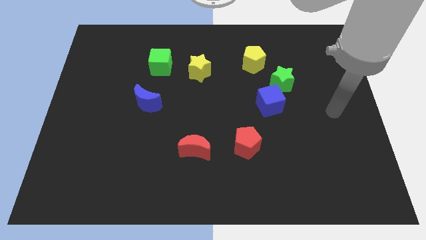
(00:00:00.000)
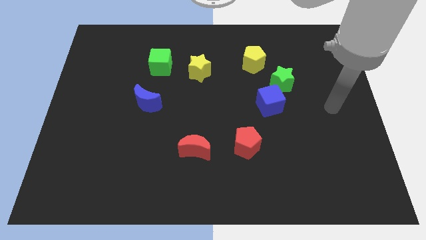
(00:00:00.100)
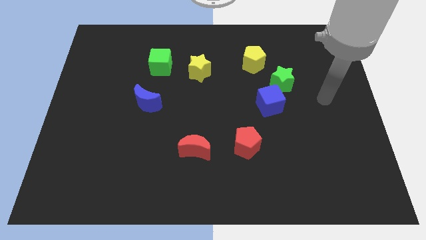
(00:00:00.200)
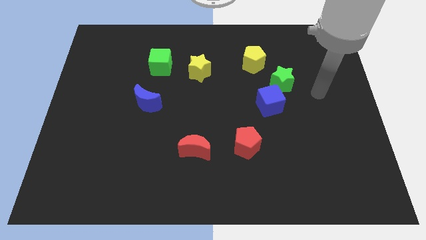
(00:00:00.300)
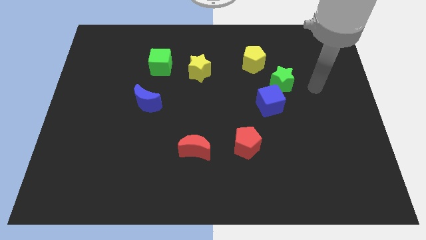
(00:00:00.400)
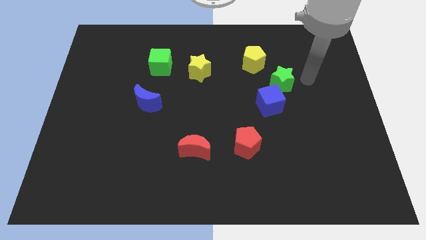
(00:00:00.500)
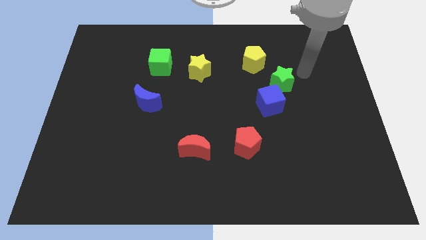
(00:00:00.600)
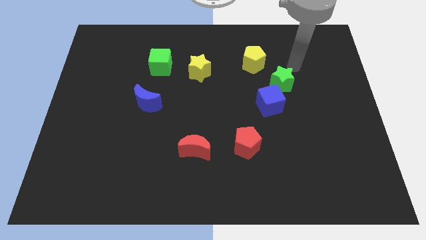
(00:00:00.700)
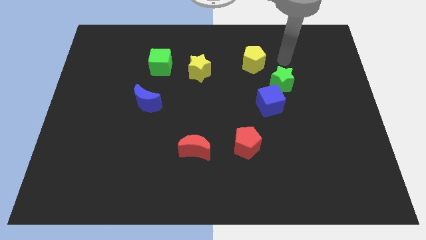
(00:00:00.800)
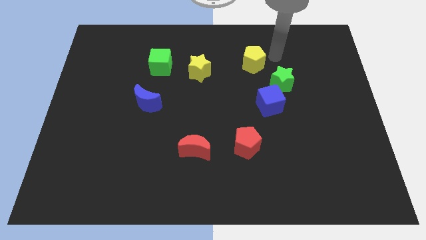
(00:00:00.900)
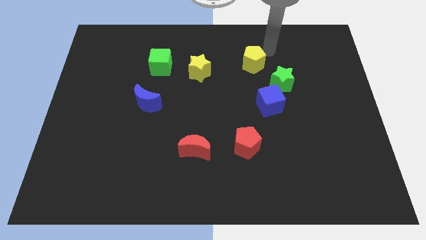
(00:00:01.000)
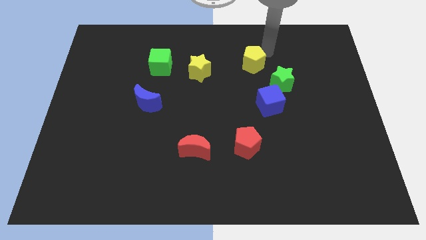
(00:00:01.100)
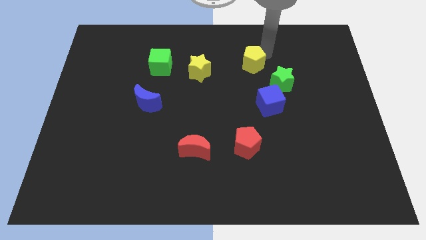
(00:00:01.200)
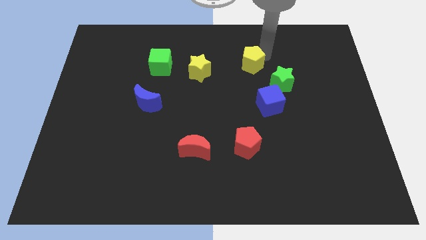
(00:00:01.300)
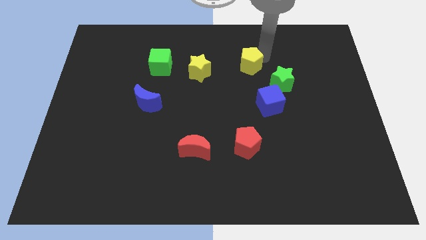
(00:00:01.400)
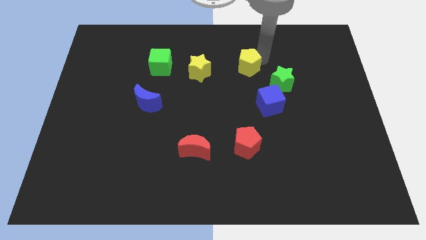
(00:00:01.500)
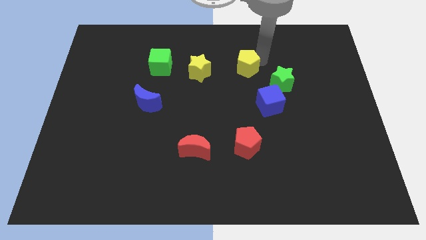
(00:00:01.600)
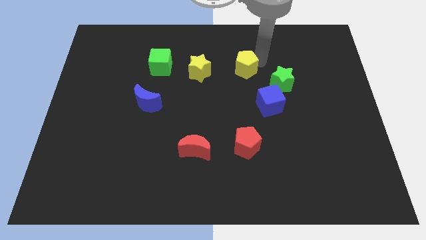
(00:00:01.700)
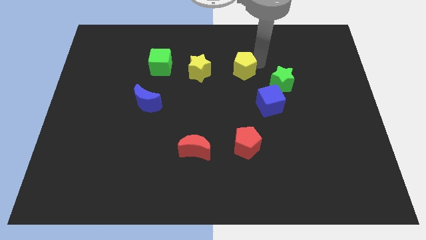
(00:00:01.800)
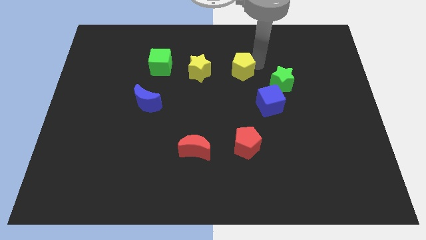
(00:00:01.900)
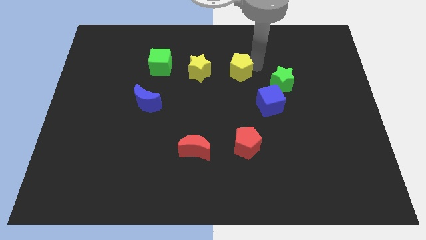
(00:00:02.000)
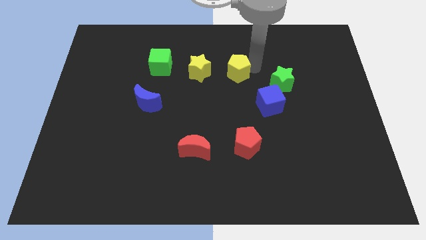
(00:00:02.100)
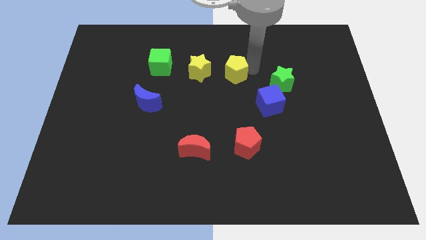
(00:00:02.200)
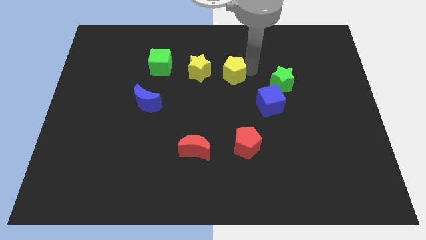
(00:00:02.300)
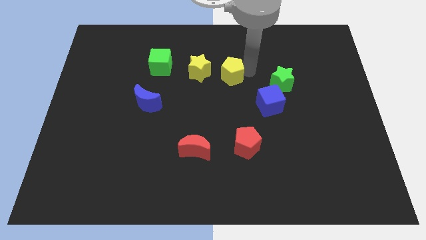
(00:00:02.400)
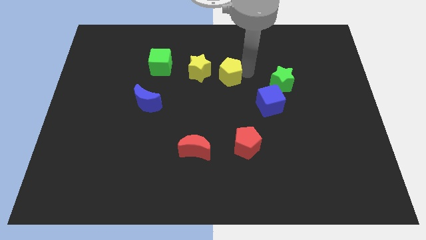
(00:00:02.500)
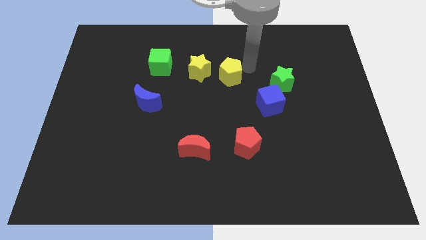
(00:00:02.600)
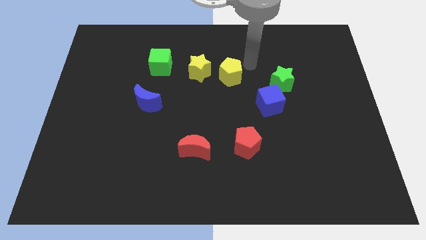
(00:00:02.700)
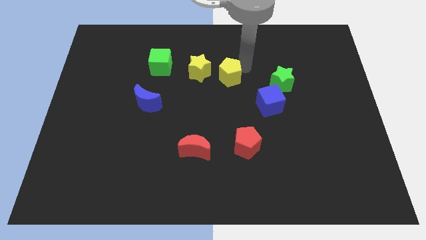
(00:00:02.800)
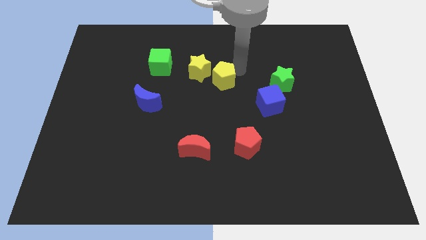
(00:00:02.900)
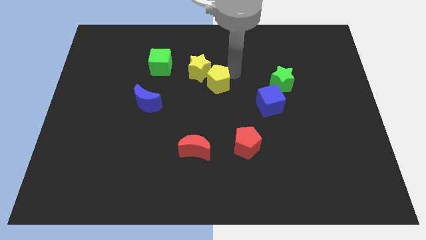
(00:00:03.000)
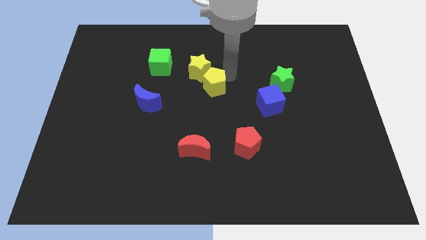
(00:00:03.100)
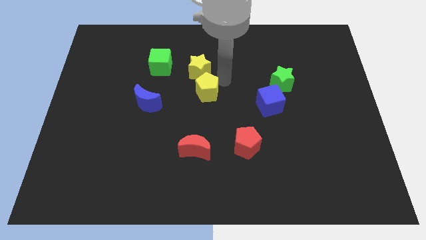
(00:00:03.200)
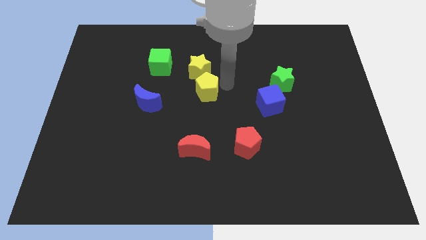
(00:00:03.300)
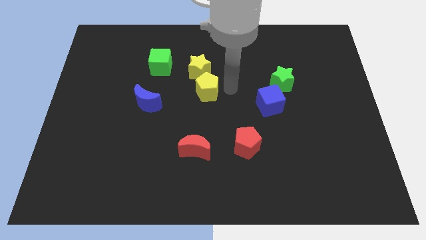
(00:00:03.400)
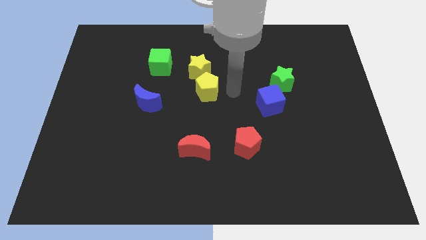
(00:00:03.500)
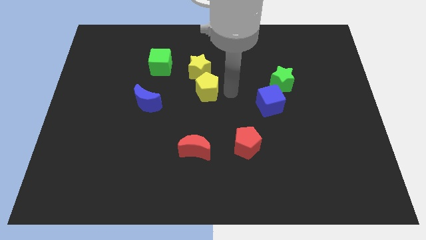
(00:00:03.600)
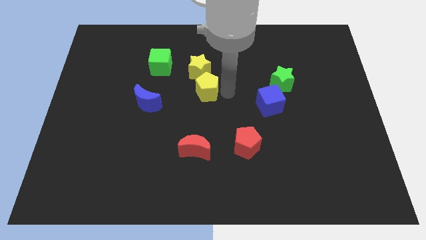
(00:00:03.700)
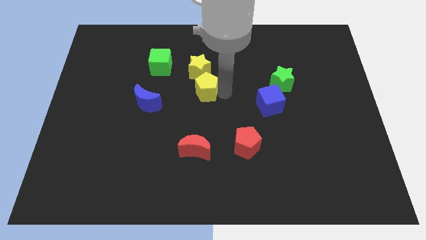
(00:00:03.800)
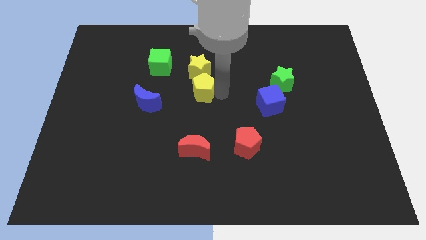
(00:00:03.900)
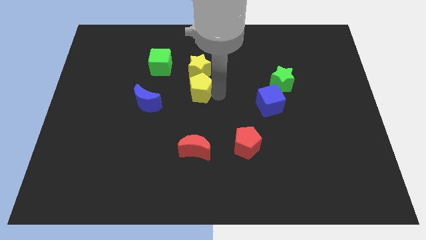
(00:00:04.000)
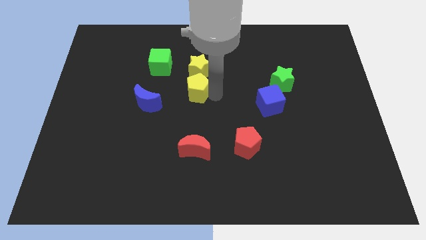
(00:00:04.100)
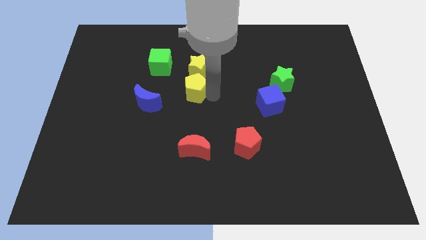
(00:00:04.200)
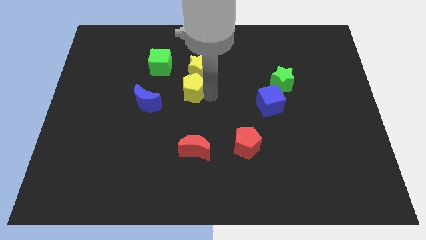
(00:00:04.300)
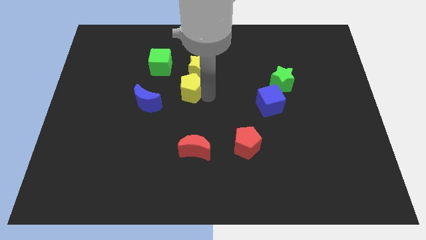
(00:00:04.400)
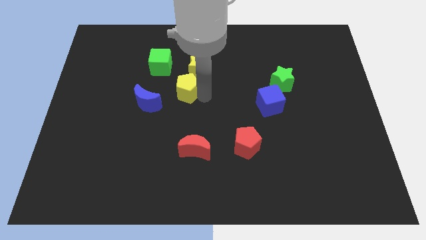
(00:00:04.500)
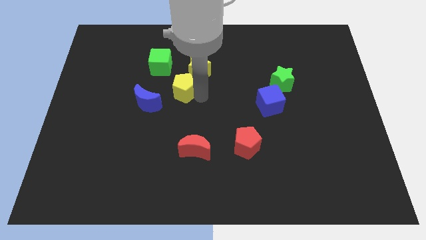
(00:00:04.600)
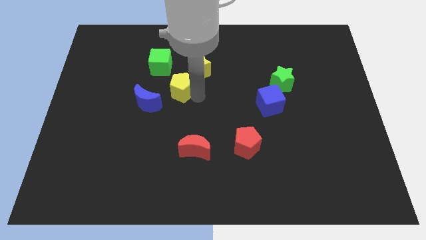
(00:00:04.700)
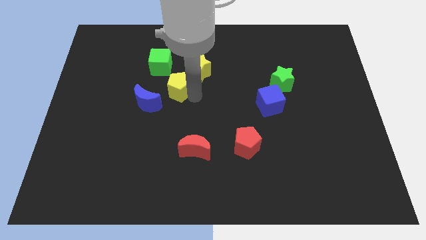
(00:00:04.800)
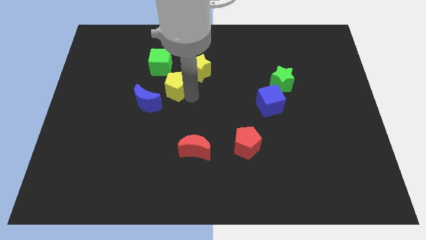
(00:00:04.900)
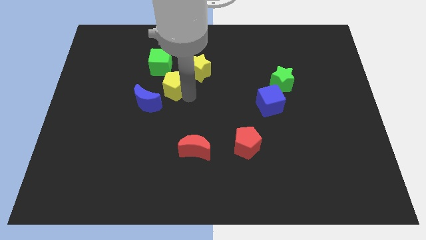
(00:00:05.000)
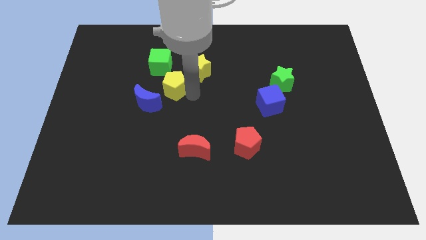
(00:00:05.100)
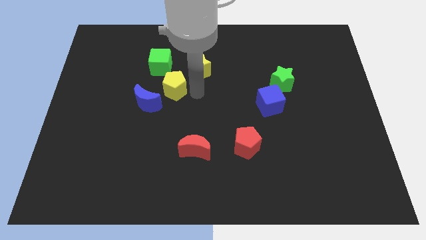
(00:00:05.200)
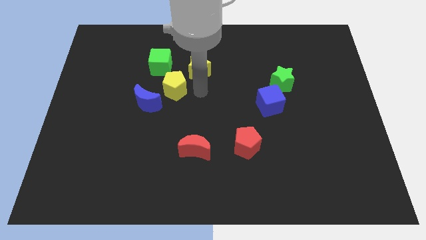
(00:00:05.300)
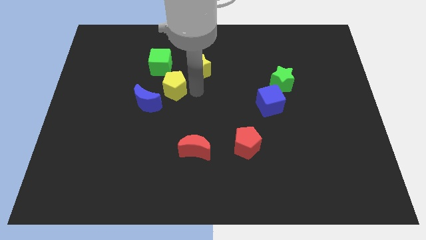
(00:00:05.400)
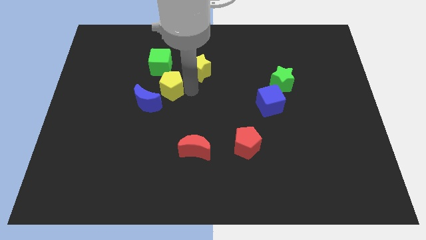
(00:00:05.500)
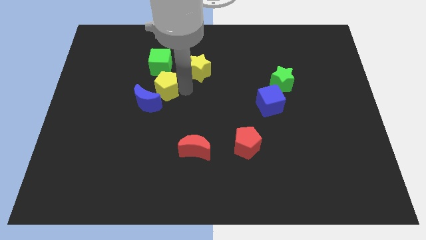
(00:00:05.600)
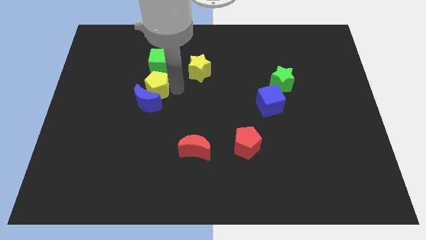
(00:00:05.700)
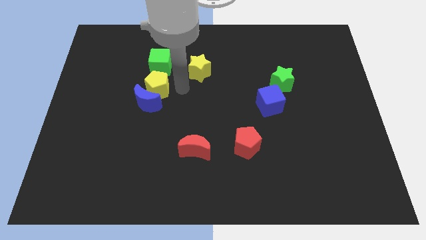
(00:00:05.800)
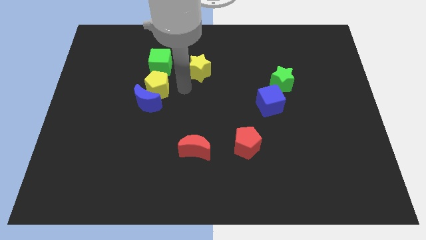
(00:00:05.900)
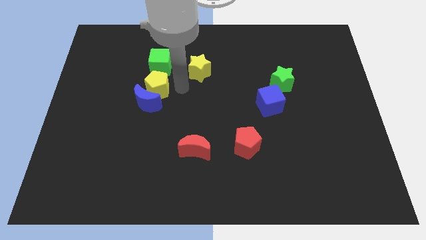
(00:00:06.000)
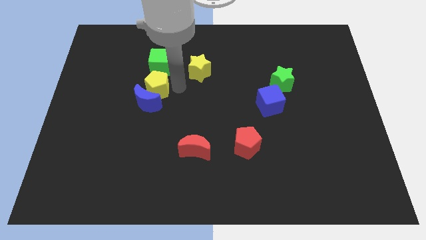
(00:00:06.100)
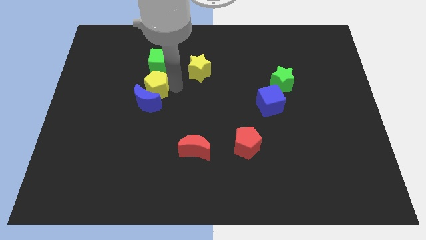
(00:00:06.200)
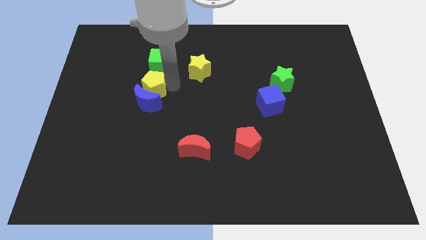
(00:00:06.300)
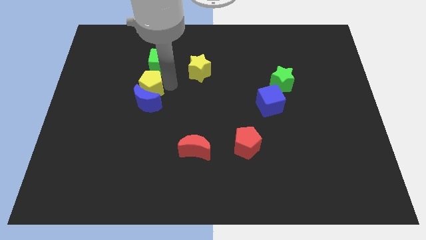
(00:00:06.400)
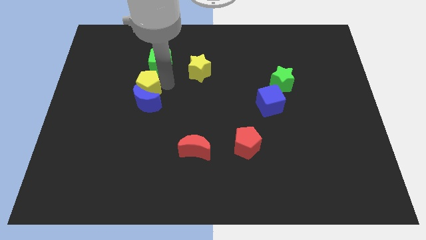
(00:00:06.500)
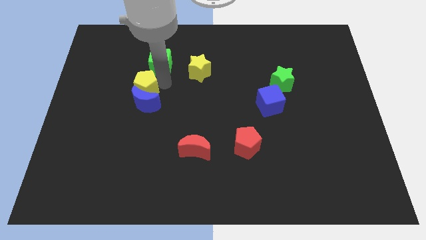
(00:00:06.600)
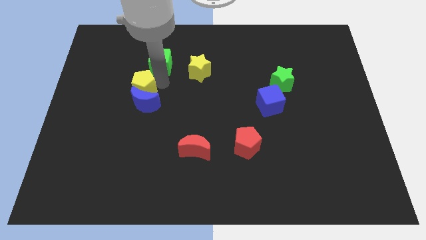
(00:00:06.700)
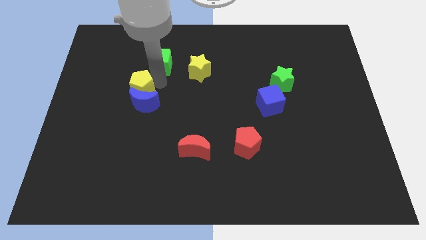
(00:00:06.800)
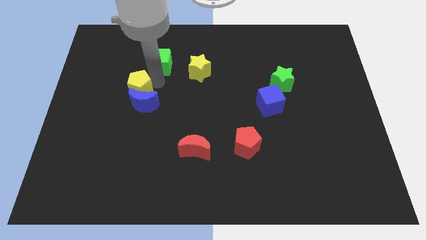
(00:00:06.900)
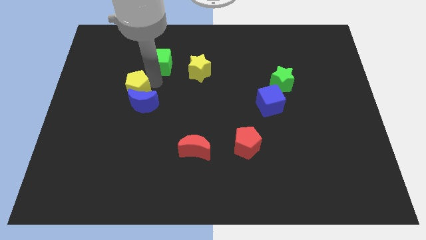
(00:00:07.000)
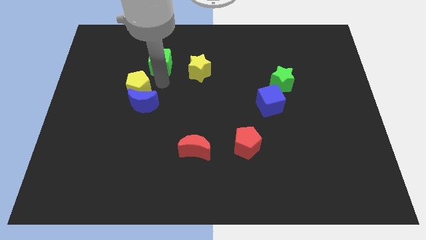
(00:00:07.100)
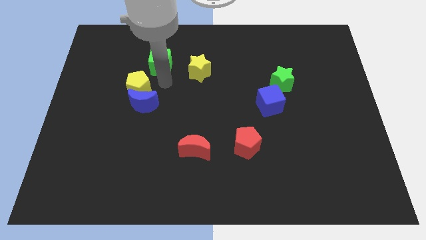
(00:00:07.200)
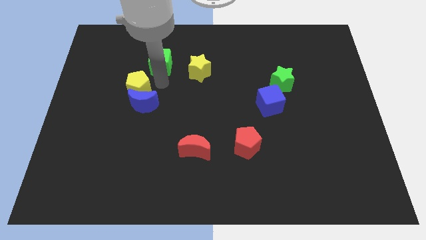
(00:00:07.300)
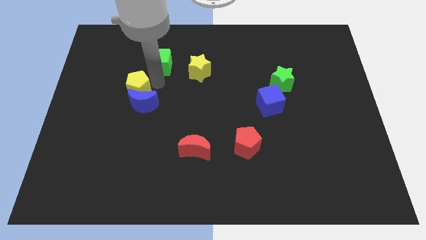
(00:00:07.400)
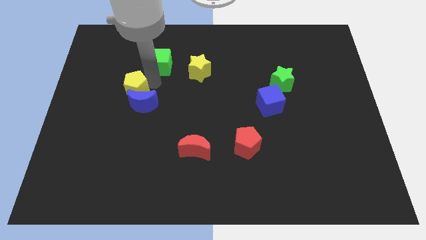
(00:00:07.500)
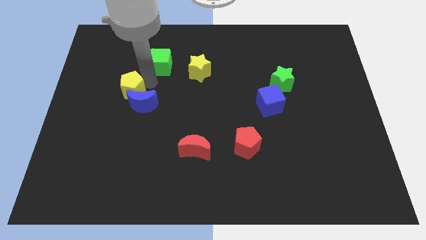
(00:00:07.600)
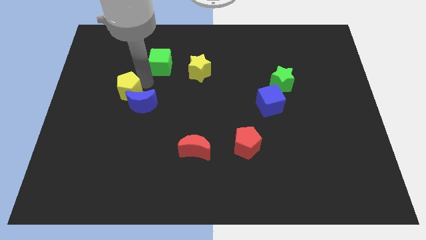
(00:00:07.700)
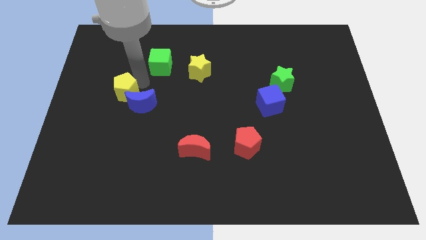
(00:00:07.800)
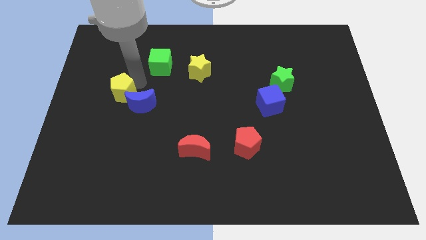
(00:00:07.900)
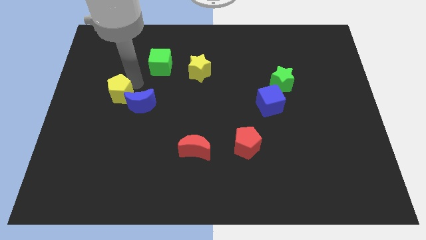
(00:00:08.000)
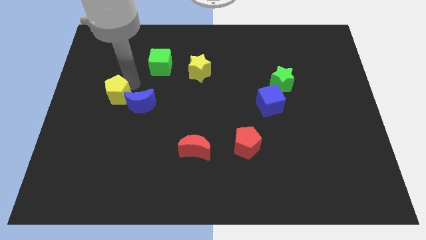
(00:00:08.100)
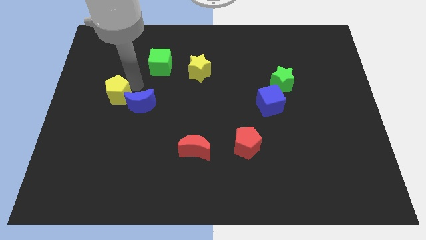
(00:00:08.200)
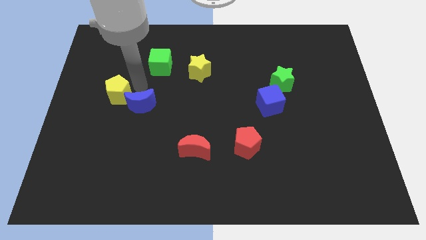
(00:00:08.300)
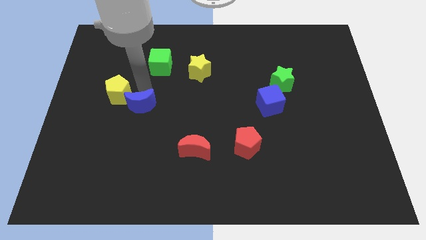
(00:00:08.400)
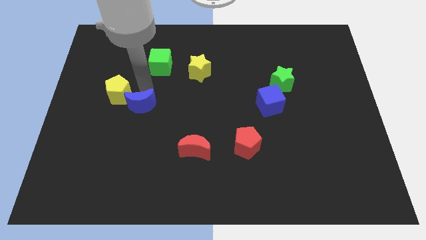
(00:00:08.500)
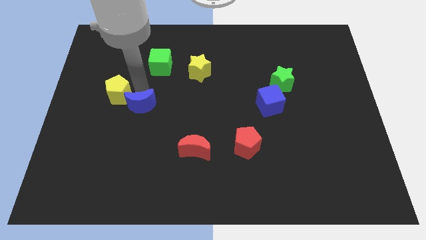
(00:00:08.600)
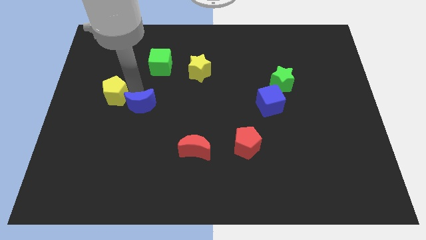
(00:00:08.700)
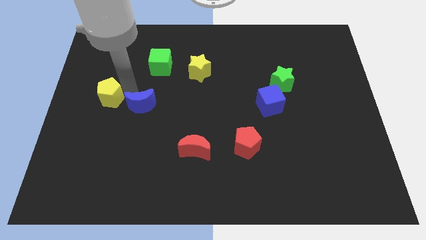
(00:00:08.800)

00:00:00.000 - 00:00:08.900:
put the yellow pentagon to the center left
